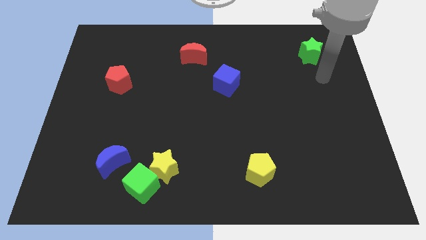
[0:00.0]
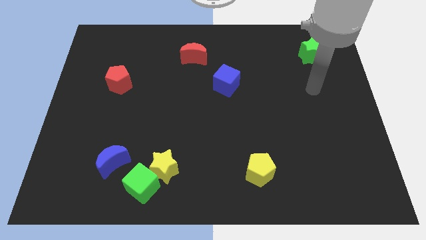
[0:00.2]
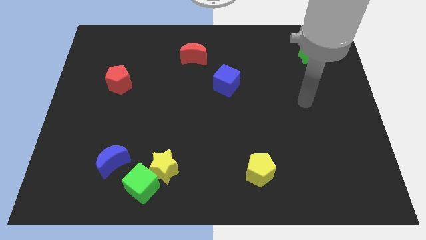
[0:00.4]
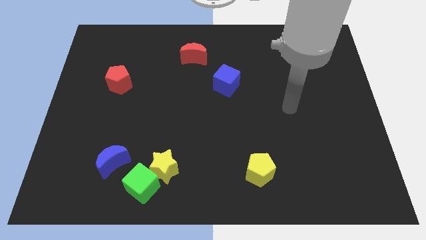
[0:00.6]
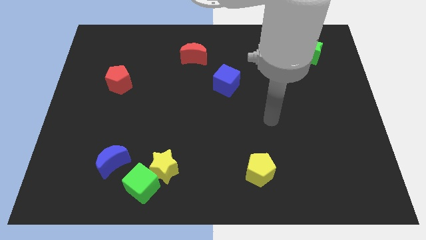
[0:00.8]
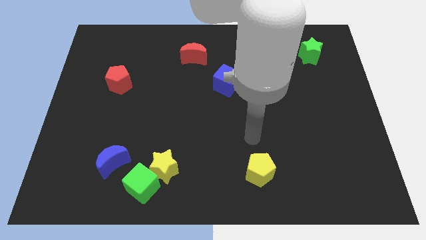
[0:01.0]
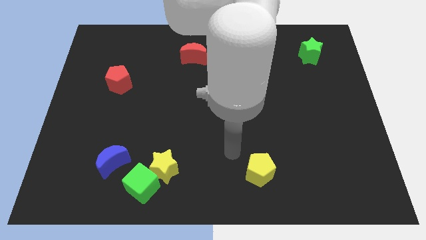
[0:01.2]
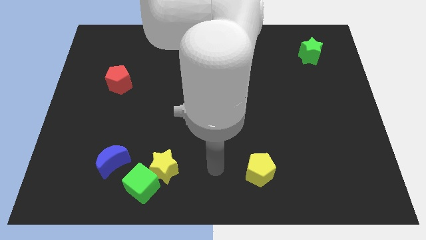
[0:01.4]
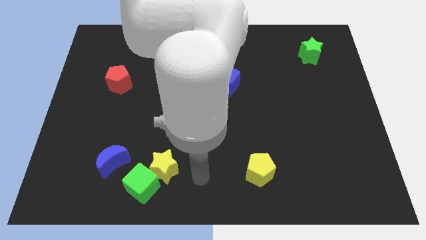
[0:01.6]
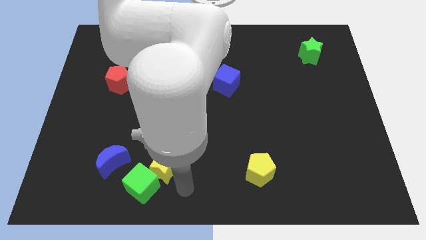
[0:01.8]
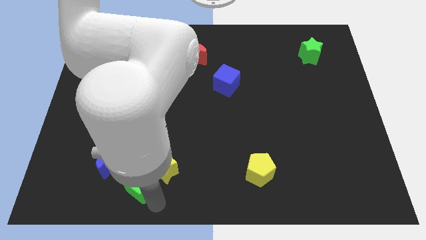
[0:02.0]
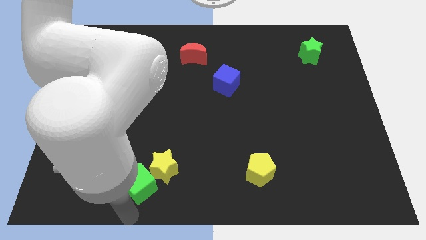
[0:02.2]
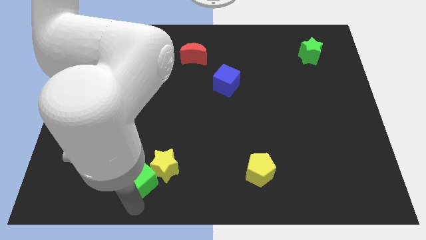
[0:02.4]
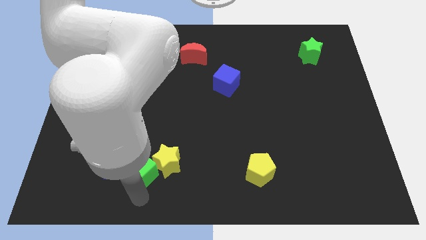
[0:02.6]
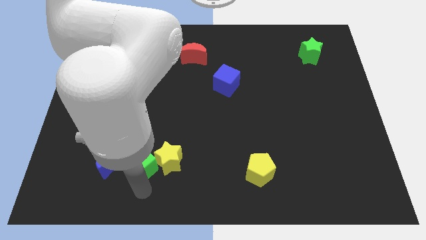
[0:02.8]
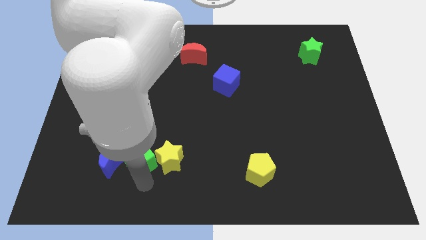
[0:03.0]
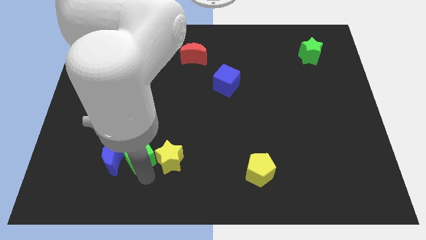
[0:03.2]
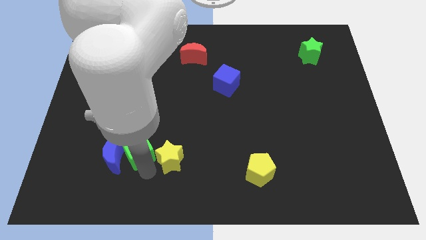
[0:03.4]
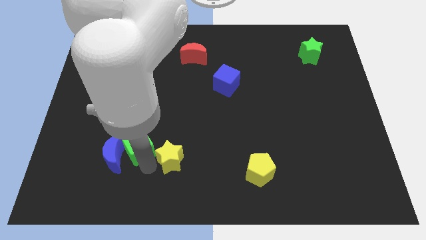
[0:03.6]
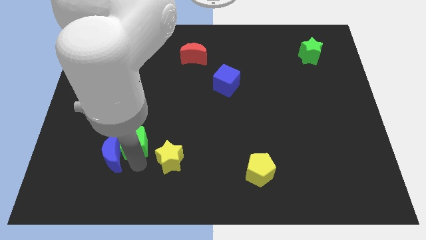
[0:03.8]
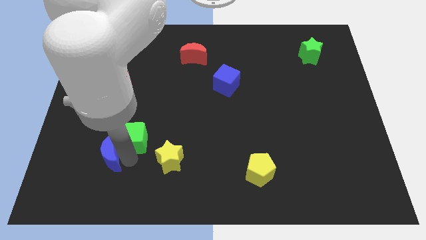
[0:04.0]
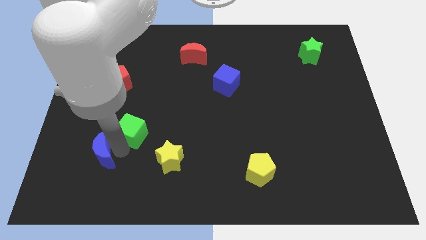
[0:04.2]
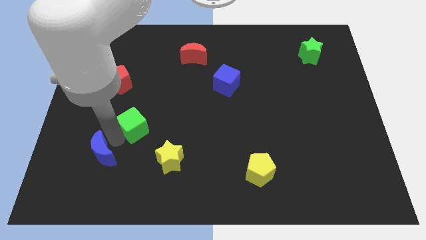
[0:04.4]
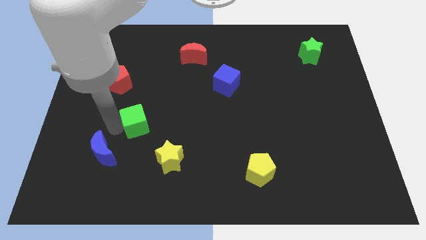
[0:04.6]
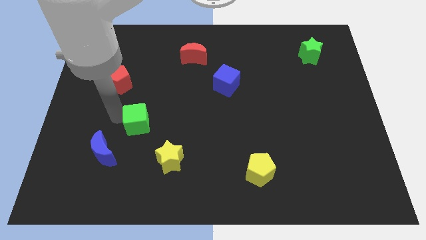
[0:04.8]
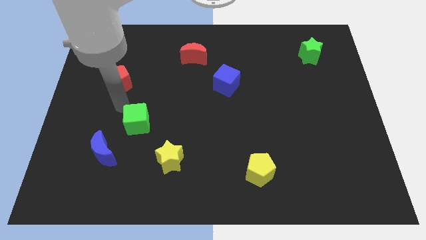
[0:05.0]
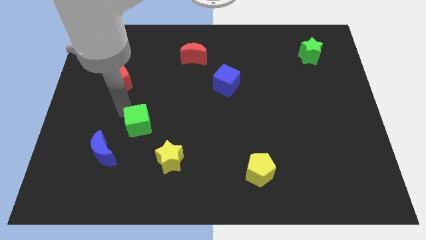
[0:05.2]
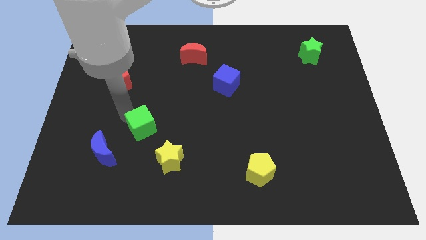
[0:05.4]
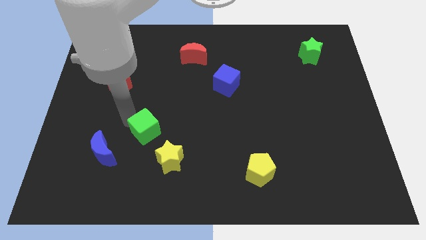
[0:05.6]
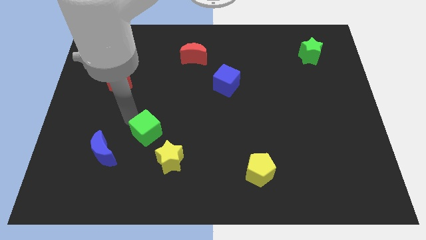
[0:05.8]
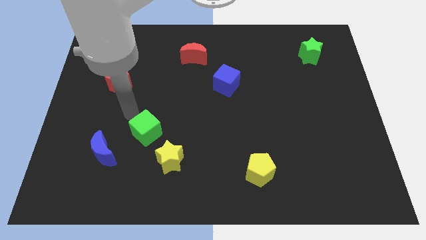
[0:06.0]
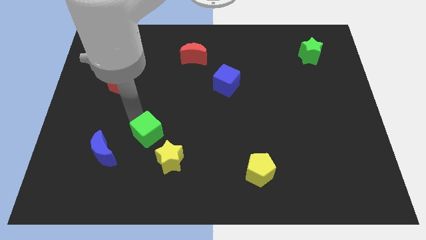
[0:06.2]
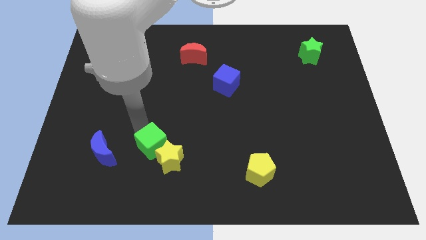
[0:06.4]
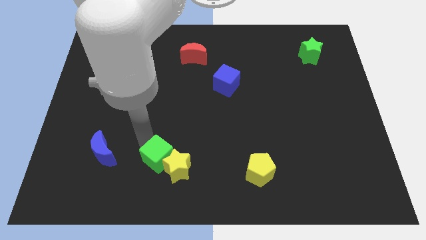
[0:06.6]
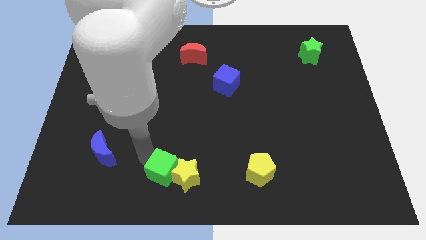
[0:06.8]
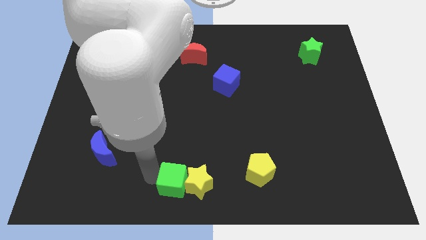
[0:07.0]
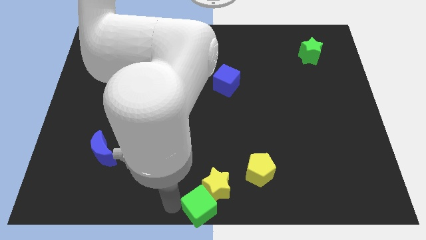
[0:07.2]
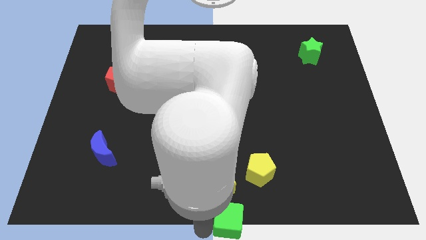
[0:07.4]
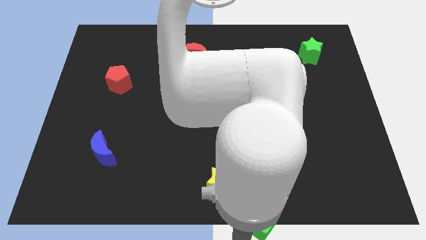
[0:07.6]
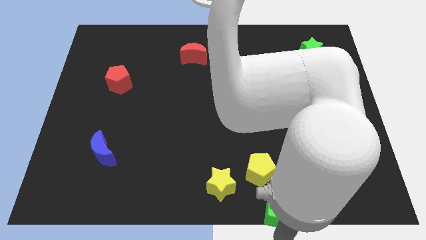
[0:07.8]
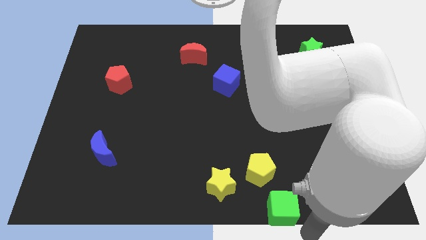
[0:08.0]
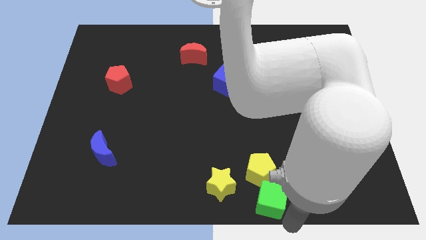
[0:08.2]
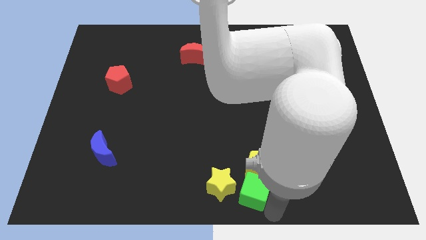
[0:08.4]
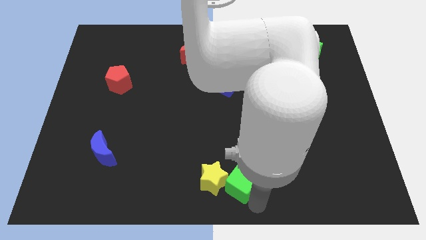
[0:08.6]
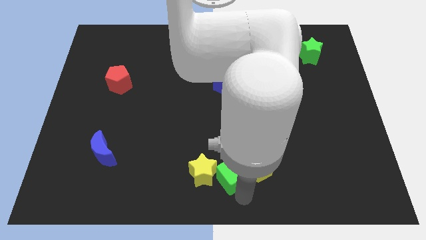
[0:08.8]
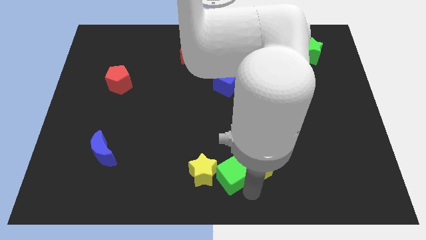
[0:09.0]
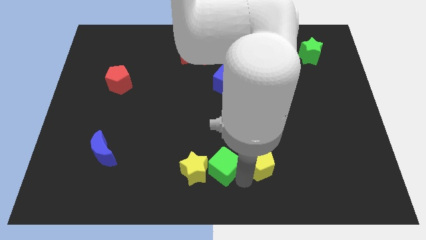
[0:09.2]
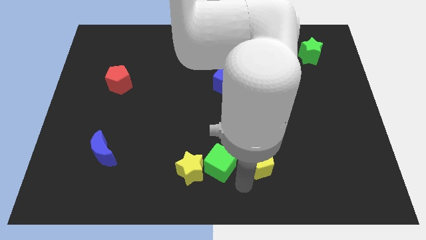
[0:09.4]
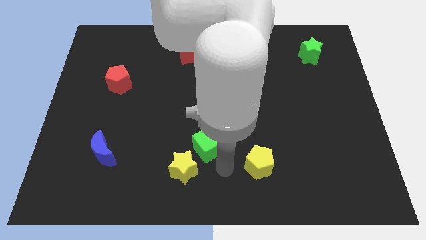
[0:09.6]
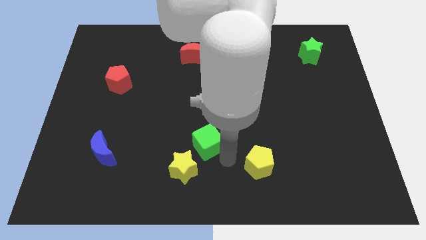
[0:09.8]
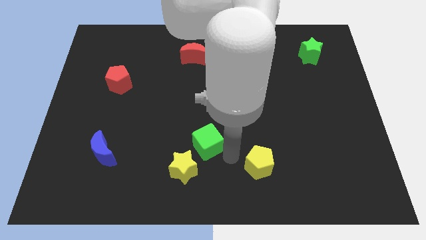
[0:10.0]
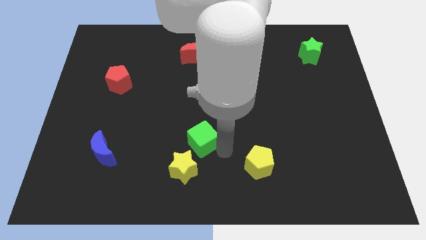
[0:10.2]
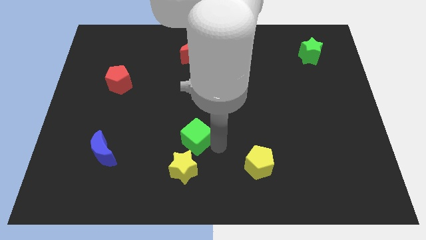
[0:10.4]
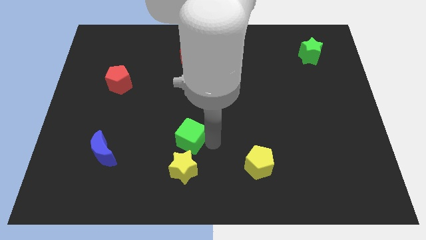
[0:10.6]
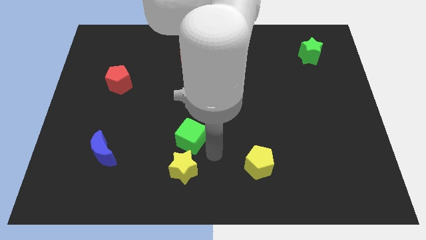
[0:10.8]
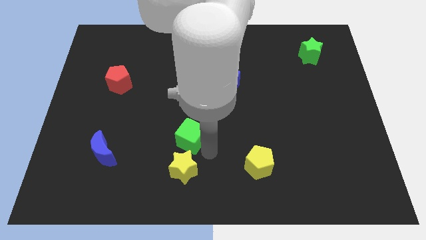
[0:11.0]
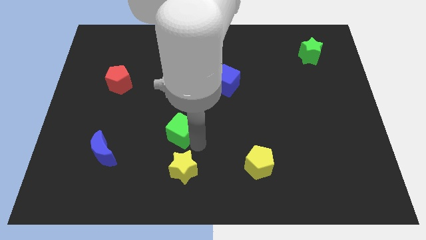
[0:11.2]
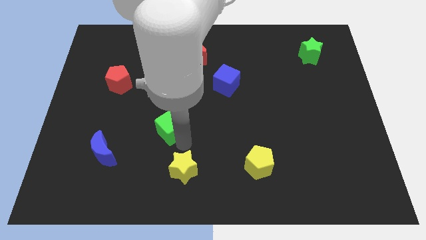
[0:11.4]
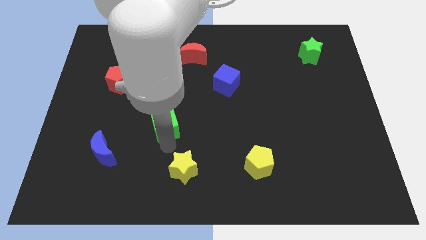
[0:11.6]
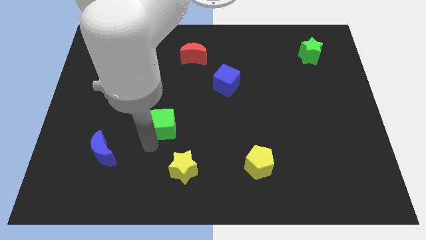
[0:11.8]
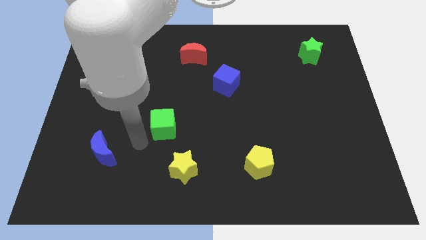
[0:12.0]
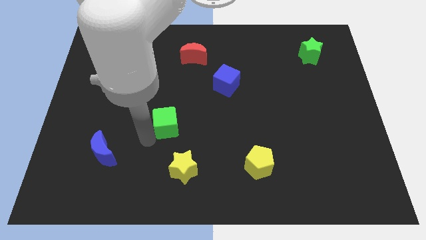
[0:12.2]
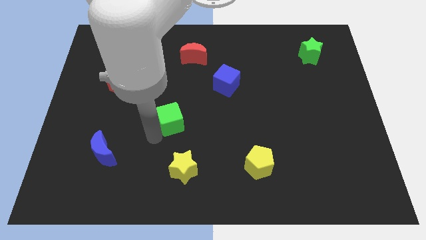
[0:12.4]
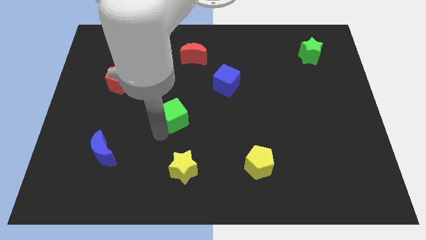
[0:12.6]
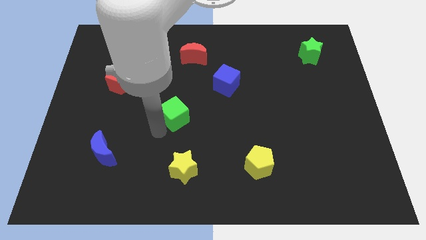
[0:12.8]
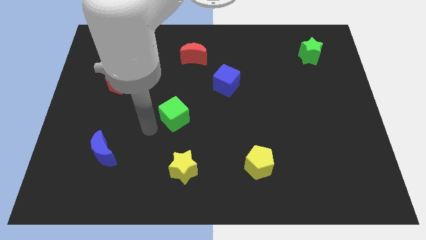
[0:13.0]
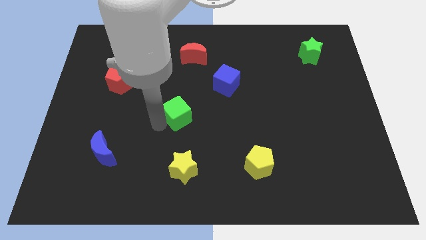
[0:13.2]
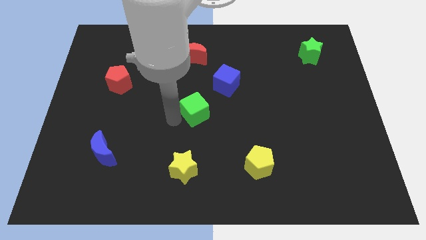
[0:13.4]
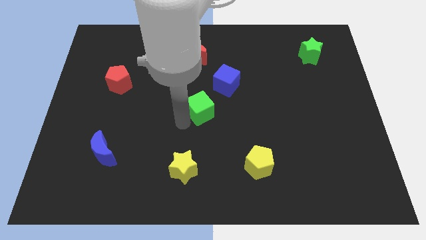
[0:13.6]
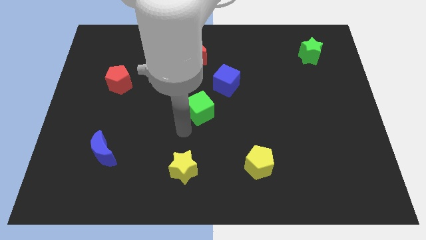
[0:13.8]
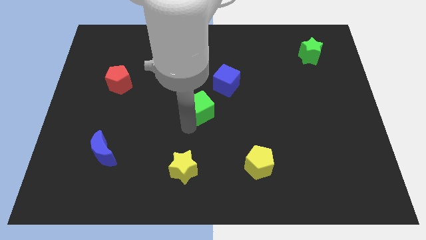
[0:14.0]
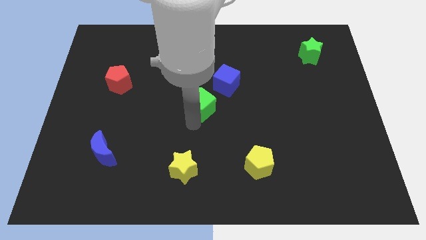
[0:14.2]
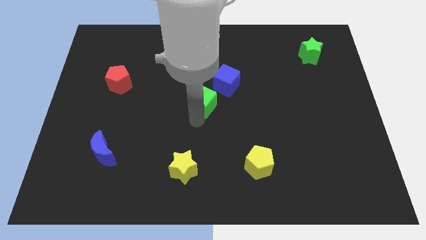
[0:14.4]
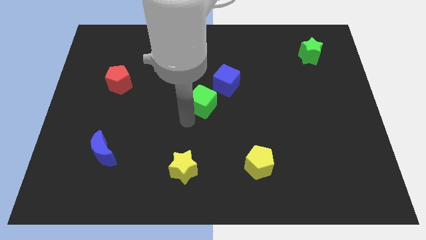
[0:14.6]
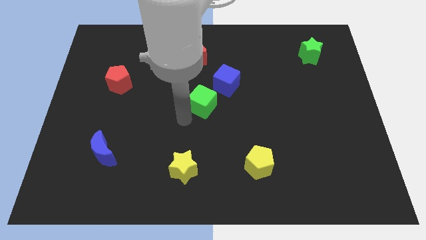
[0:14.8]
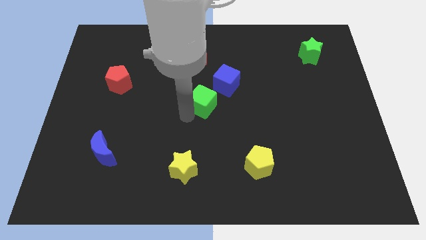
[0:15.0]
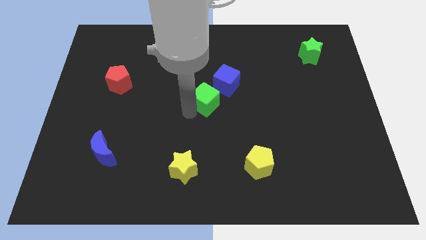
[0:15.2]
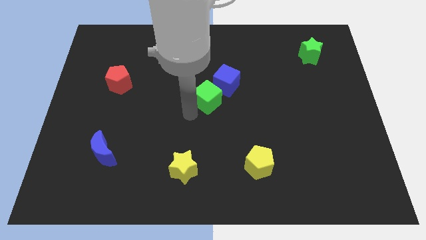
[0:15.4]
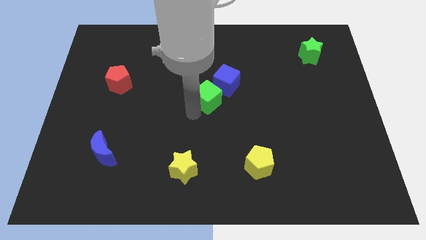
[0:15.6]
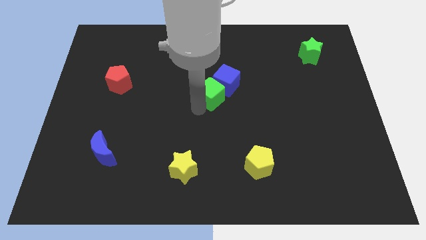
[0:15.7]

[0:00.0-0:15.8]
push the green cube to the blue cube
